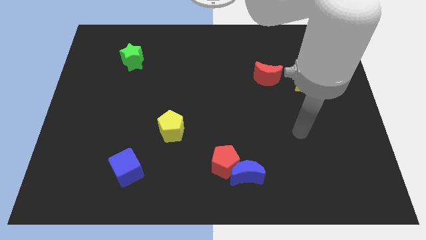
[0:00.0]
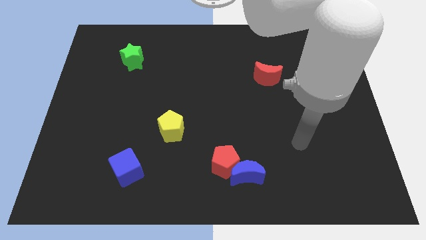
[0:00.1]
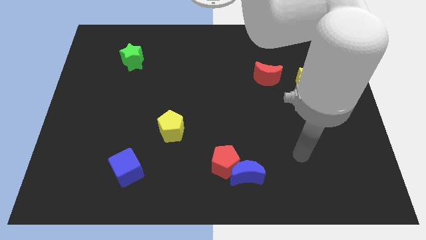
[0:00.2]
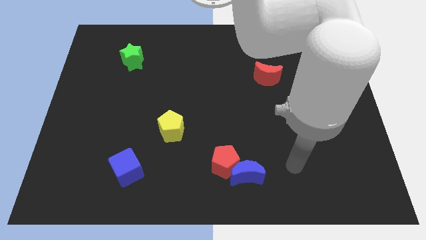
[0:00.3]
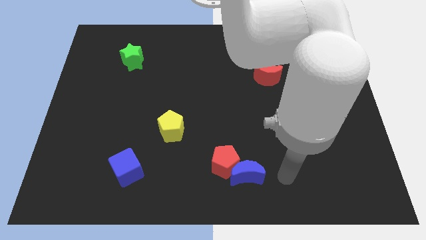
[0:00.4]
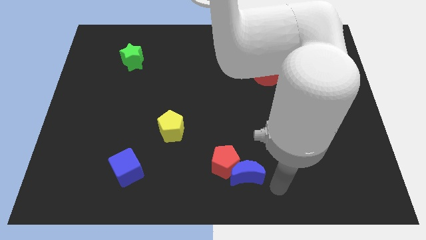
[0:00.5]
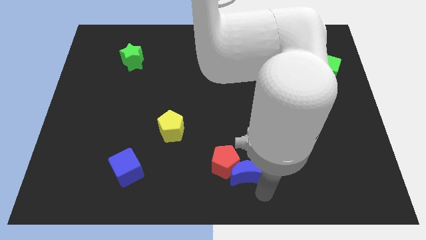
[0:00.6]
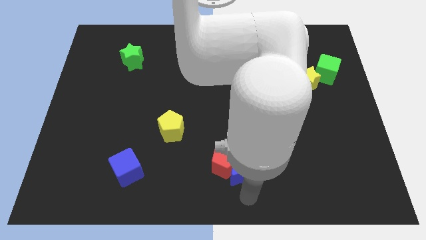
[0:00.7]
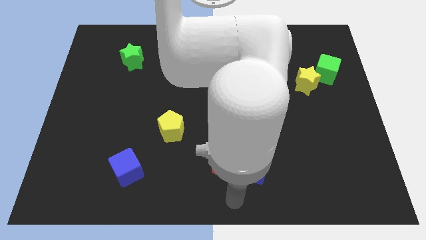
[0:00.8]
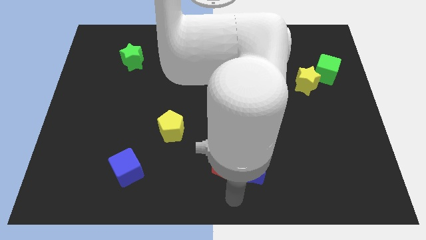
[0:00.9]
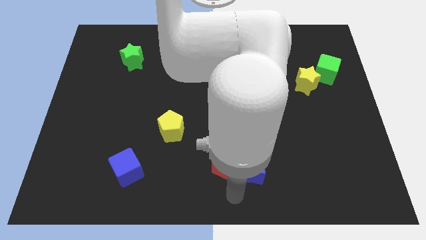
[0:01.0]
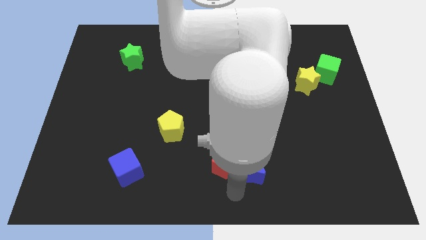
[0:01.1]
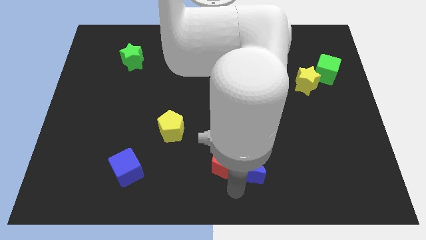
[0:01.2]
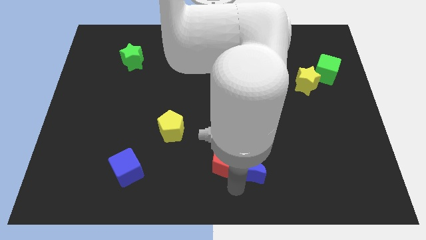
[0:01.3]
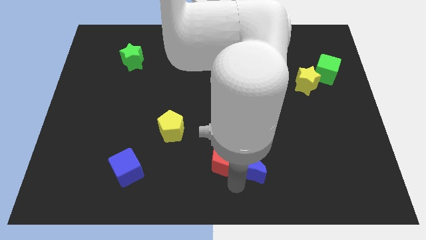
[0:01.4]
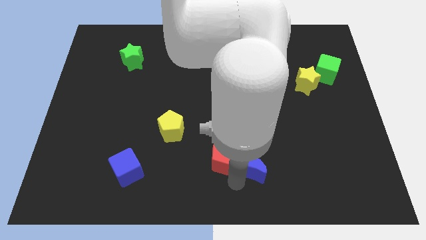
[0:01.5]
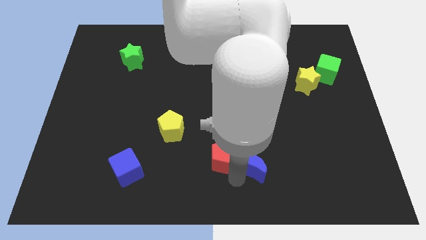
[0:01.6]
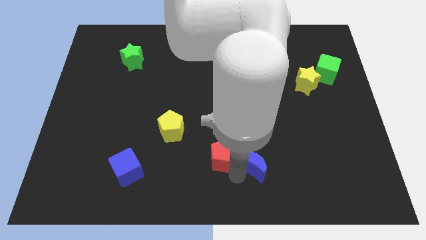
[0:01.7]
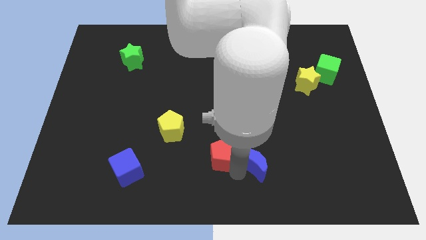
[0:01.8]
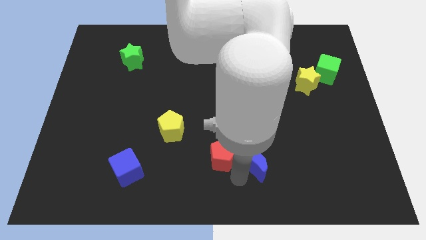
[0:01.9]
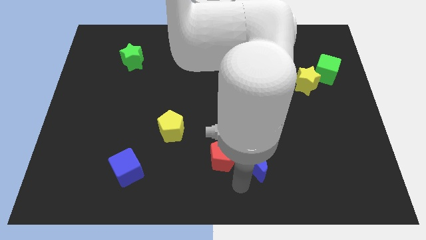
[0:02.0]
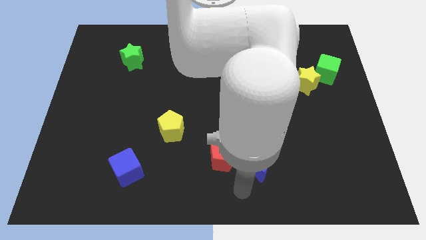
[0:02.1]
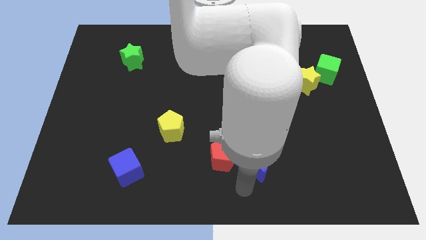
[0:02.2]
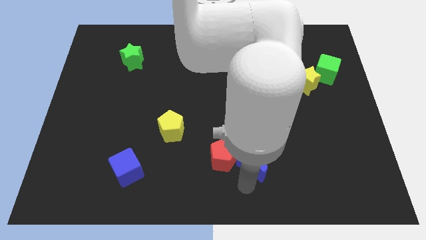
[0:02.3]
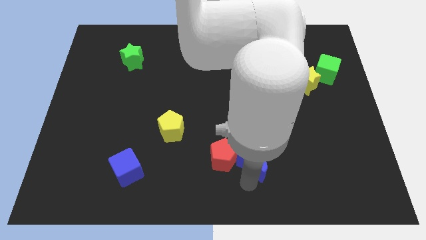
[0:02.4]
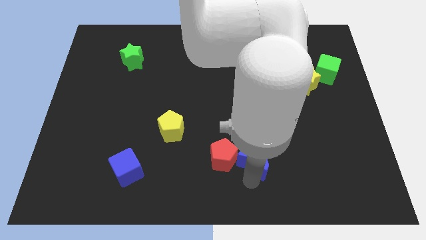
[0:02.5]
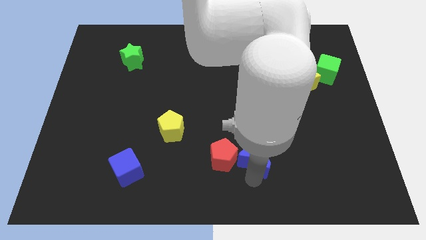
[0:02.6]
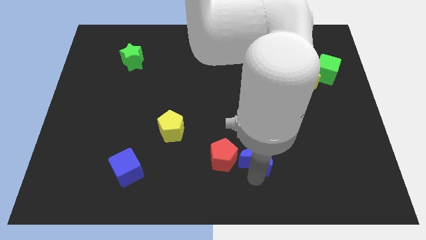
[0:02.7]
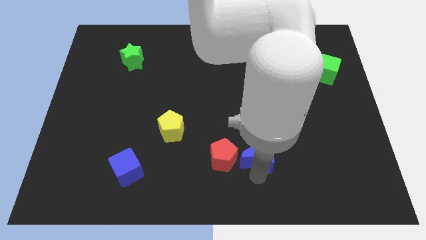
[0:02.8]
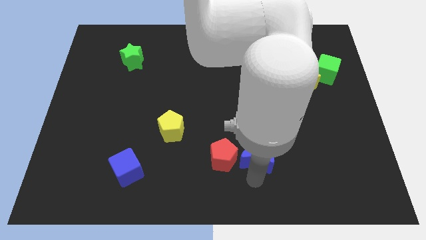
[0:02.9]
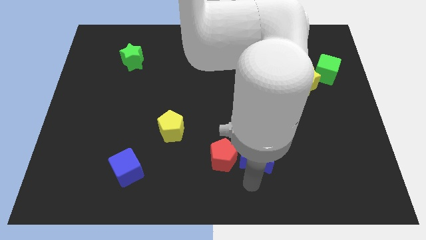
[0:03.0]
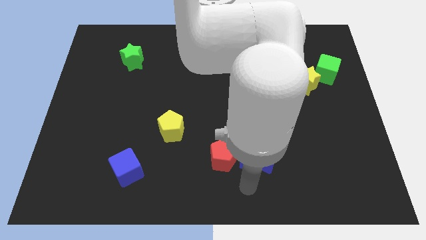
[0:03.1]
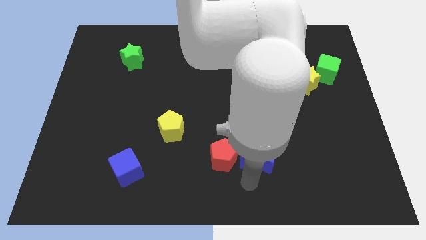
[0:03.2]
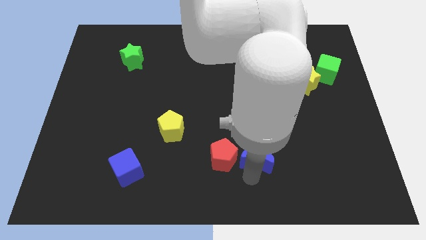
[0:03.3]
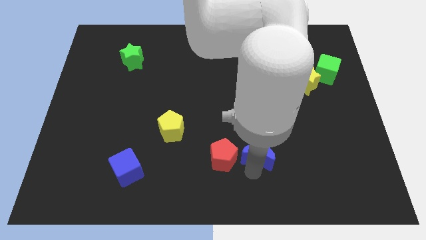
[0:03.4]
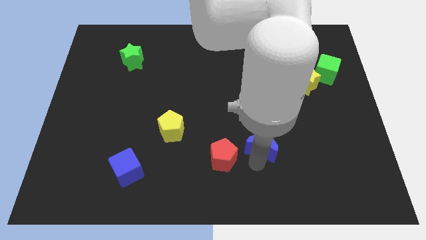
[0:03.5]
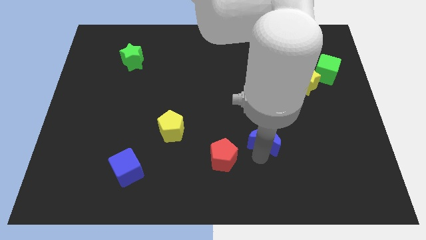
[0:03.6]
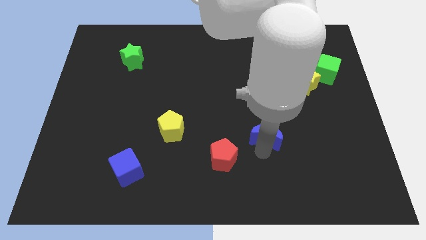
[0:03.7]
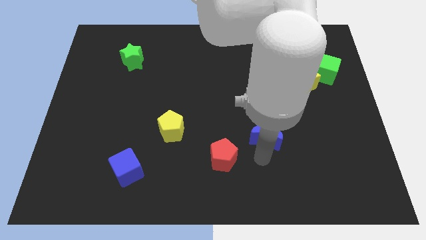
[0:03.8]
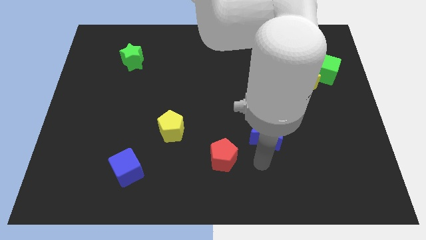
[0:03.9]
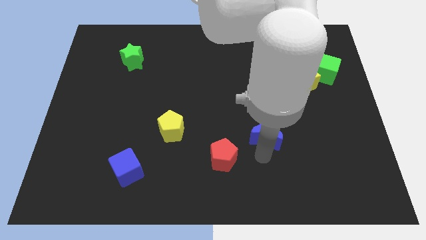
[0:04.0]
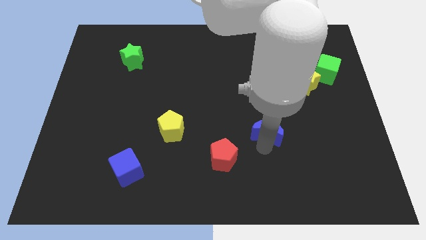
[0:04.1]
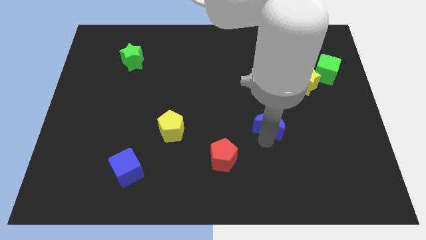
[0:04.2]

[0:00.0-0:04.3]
move the blue moon to the bottom of the red moon

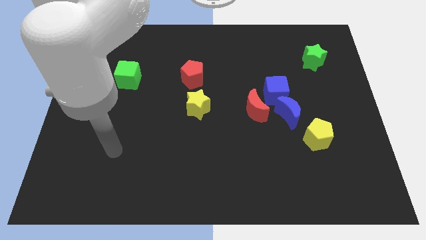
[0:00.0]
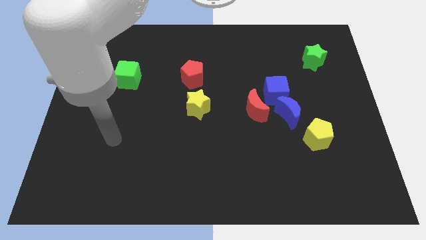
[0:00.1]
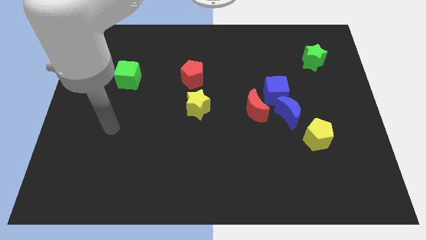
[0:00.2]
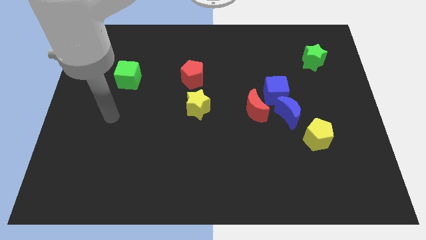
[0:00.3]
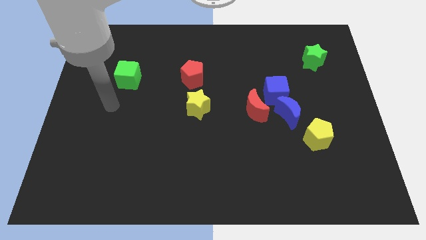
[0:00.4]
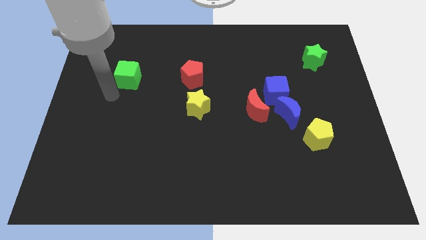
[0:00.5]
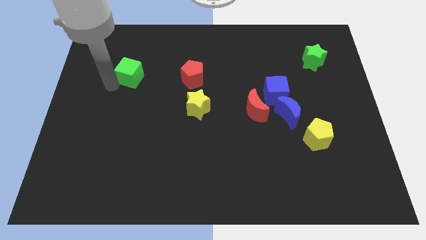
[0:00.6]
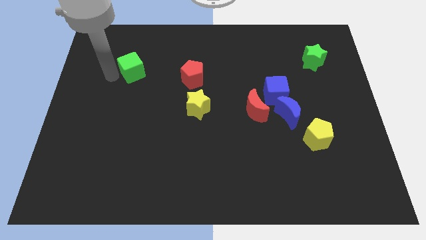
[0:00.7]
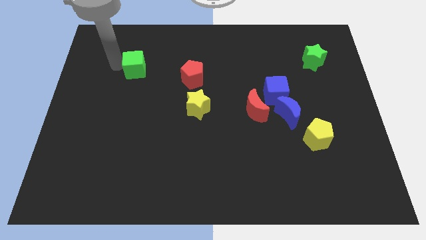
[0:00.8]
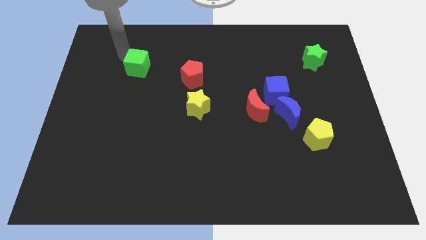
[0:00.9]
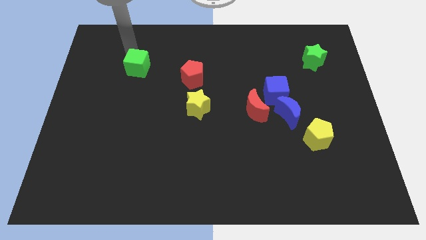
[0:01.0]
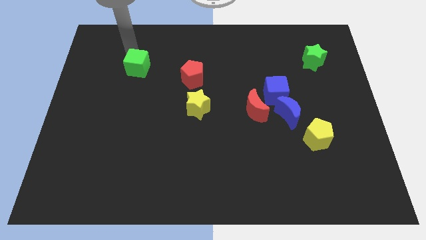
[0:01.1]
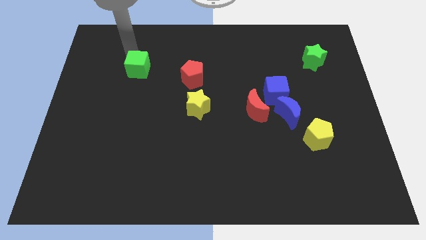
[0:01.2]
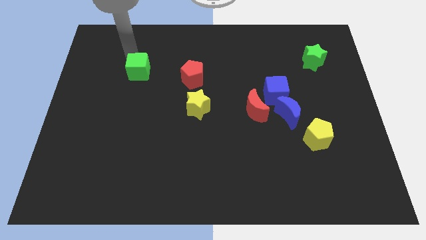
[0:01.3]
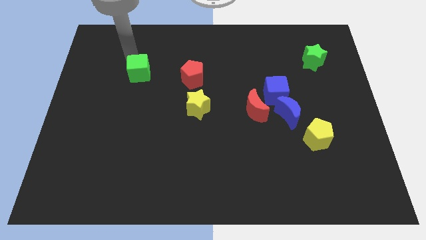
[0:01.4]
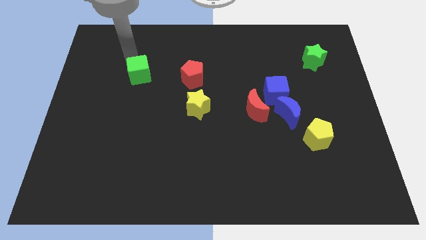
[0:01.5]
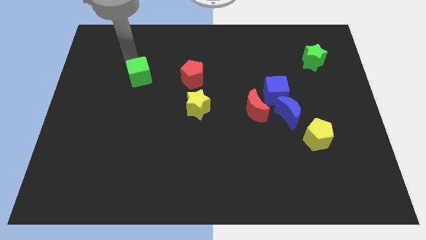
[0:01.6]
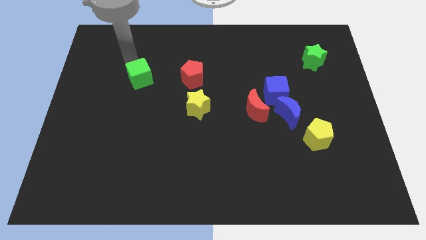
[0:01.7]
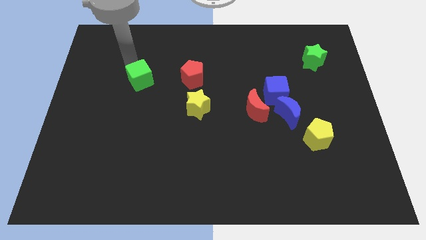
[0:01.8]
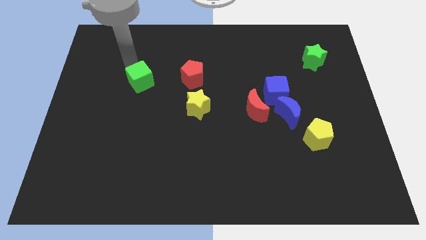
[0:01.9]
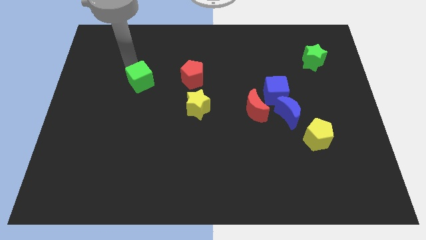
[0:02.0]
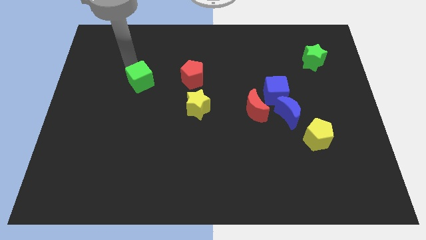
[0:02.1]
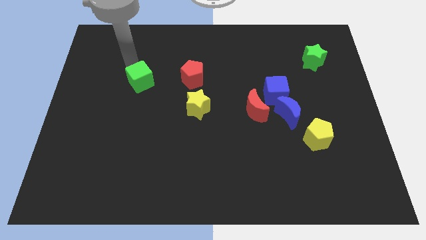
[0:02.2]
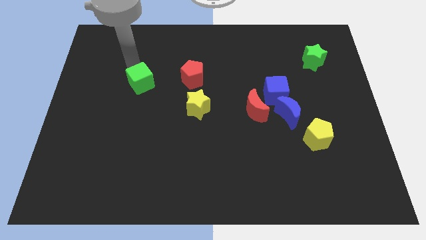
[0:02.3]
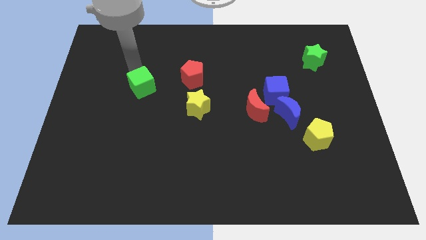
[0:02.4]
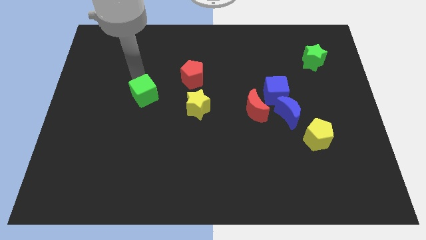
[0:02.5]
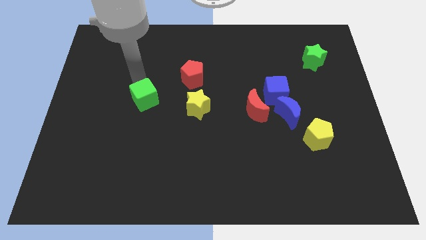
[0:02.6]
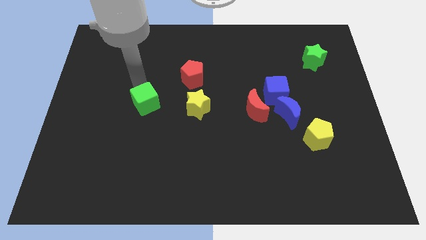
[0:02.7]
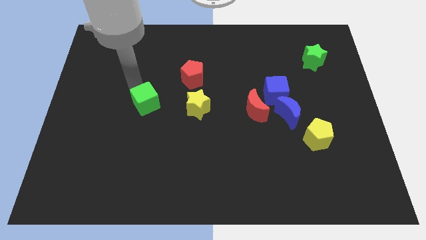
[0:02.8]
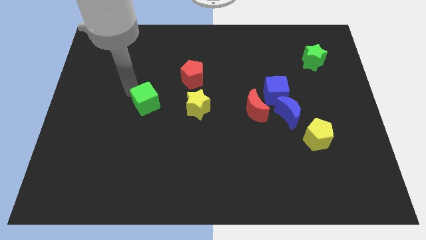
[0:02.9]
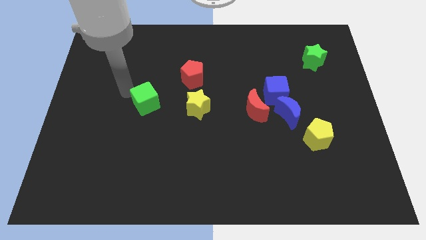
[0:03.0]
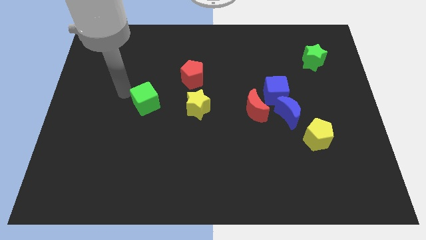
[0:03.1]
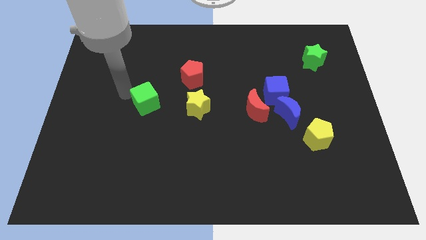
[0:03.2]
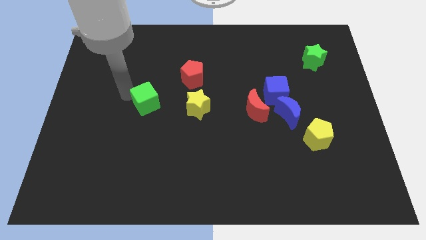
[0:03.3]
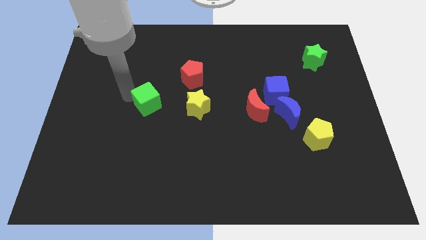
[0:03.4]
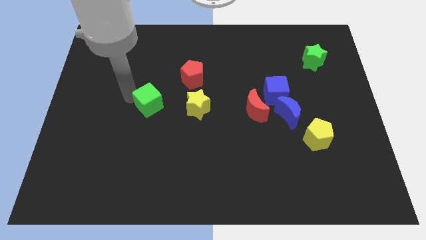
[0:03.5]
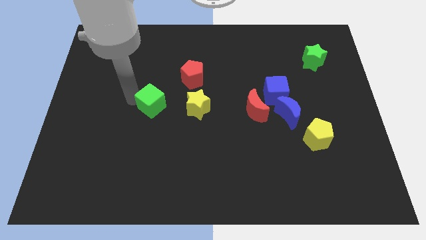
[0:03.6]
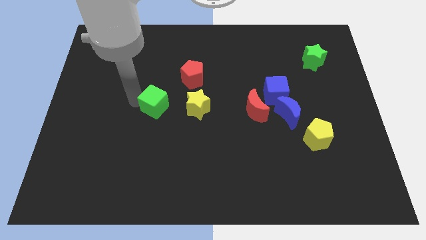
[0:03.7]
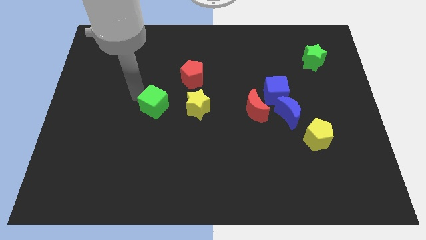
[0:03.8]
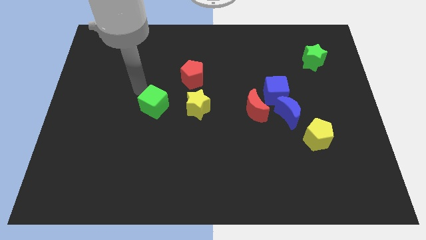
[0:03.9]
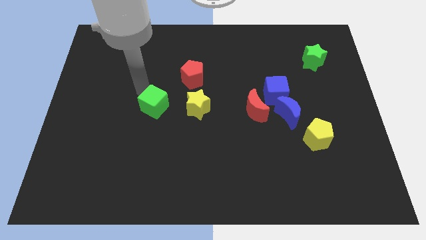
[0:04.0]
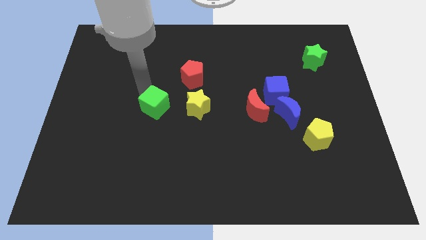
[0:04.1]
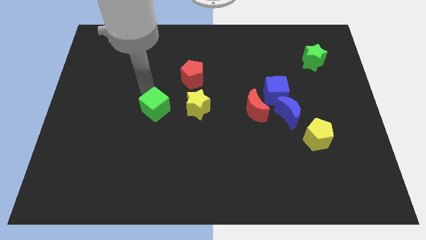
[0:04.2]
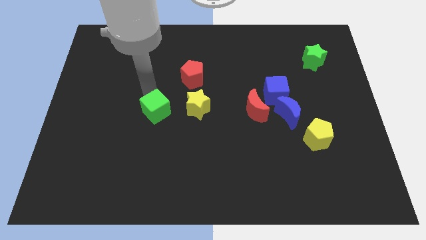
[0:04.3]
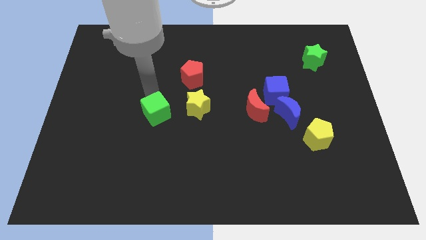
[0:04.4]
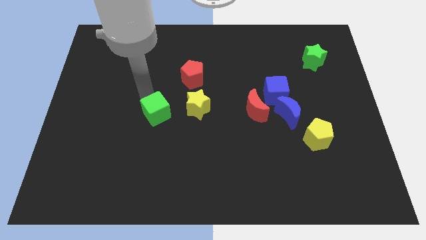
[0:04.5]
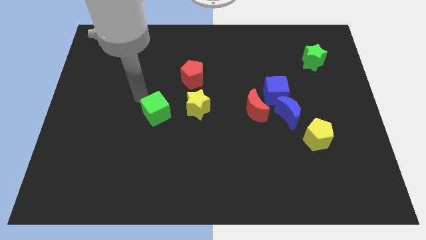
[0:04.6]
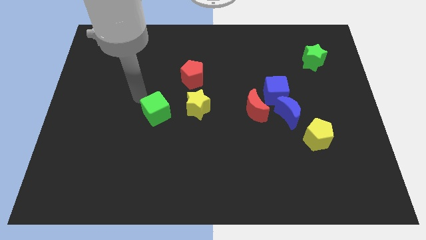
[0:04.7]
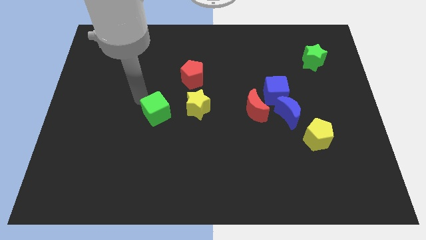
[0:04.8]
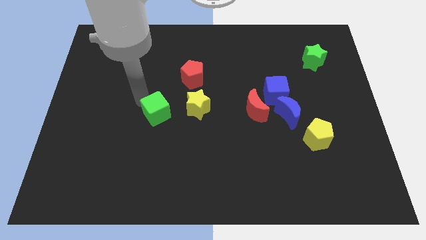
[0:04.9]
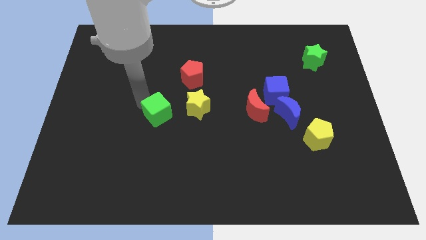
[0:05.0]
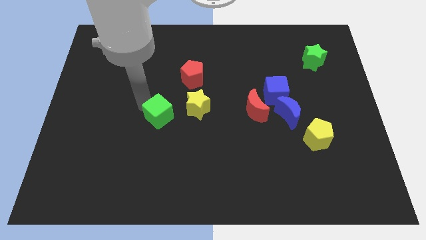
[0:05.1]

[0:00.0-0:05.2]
slide the green cube diagonally down and to the left of the yellow star
